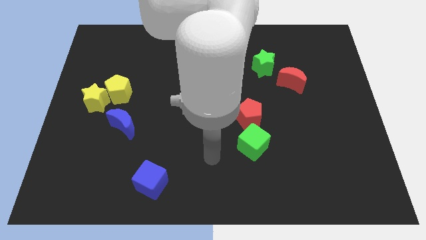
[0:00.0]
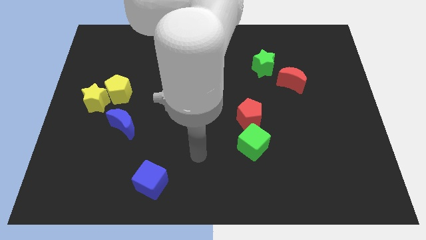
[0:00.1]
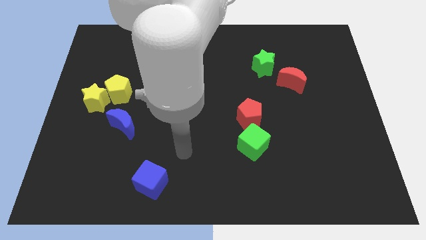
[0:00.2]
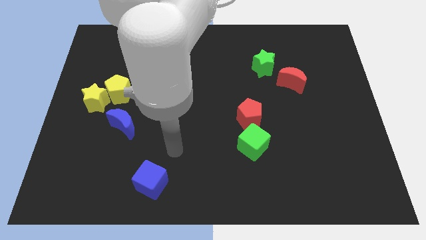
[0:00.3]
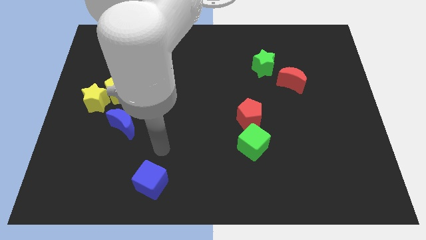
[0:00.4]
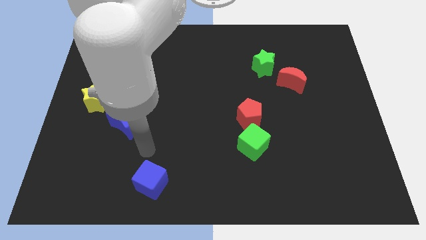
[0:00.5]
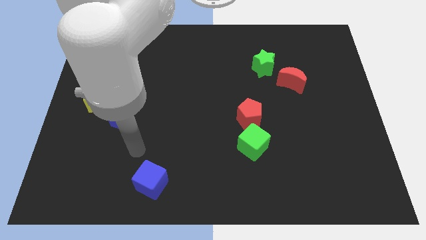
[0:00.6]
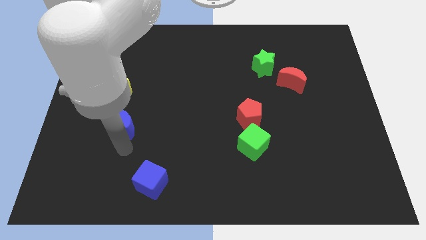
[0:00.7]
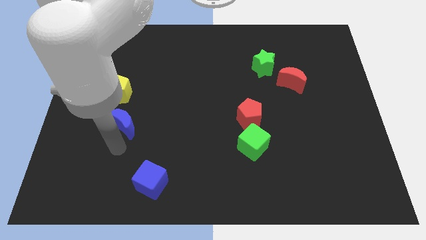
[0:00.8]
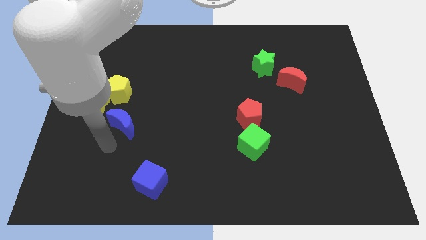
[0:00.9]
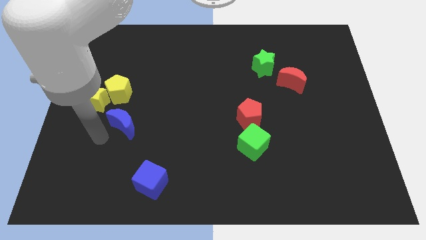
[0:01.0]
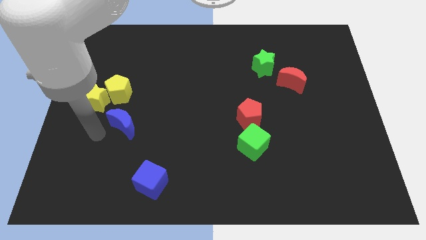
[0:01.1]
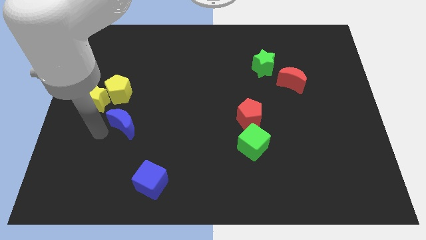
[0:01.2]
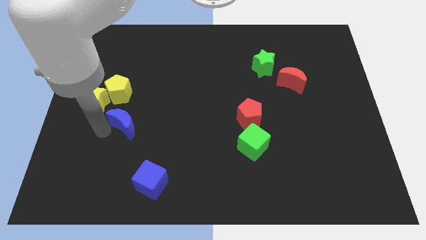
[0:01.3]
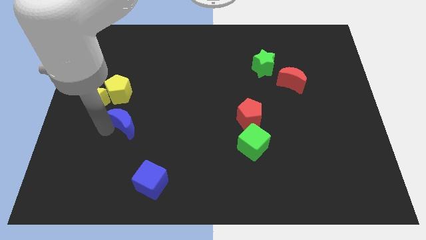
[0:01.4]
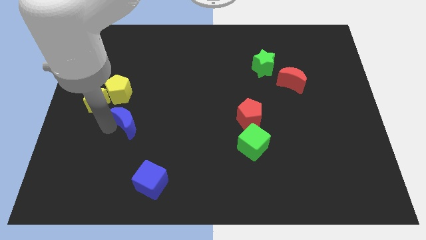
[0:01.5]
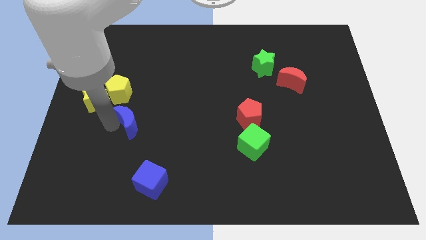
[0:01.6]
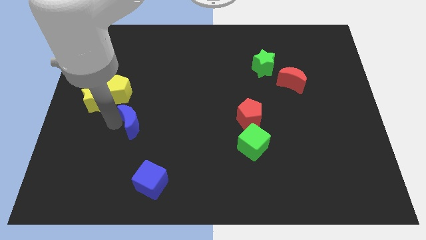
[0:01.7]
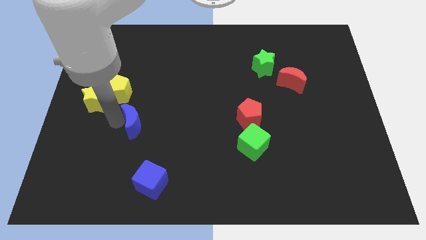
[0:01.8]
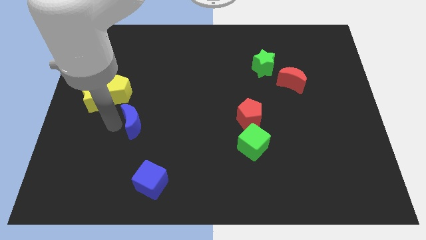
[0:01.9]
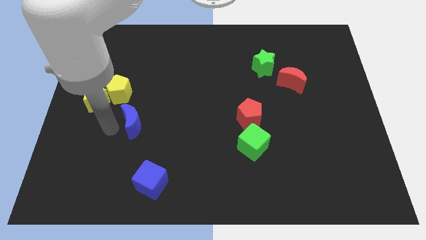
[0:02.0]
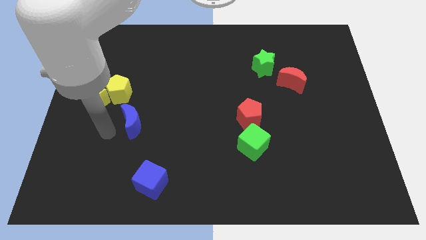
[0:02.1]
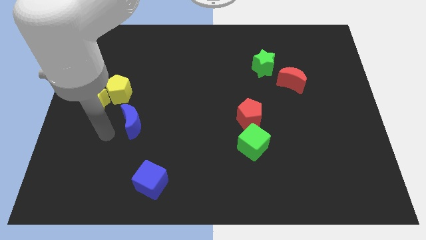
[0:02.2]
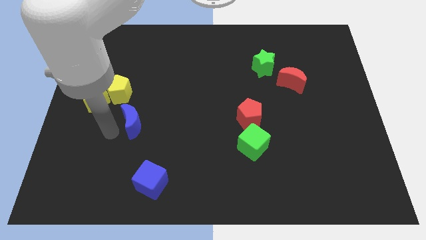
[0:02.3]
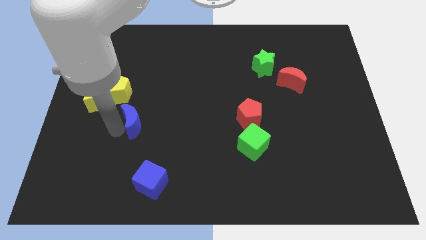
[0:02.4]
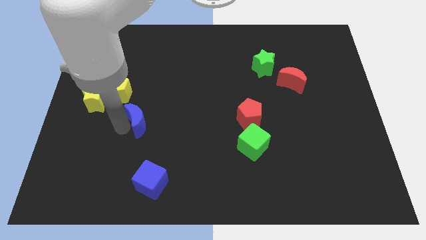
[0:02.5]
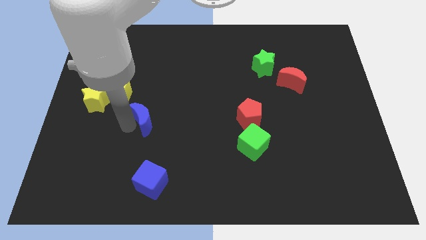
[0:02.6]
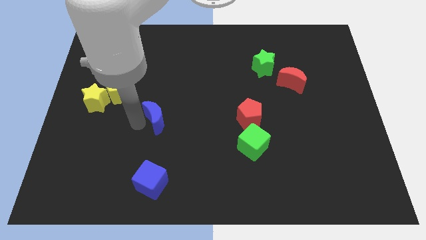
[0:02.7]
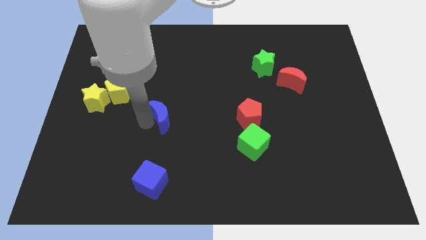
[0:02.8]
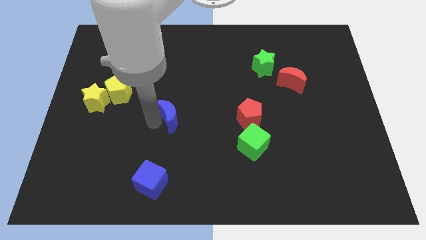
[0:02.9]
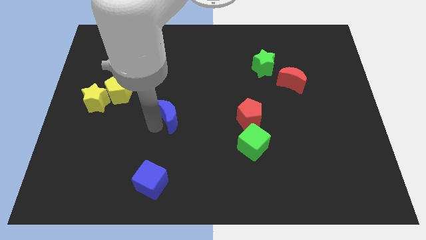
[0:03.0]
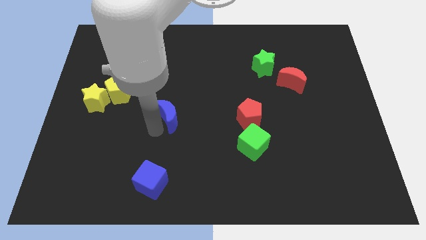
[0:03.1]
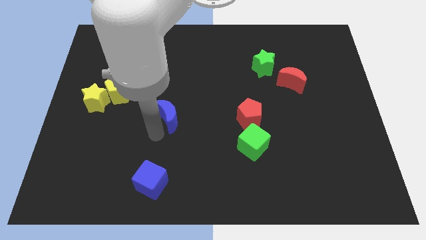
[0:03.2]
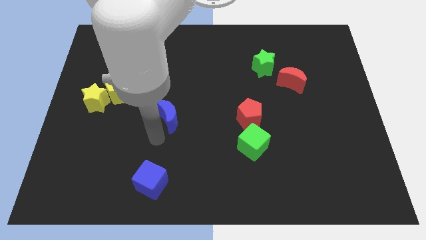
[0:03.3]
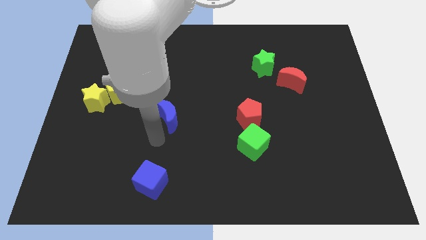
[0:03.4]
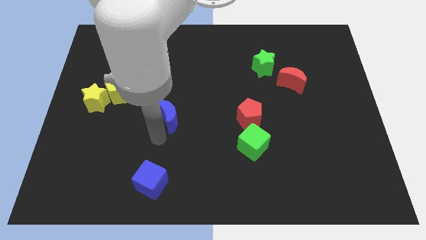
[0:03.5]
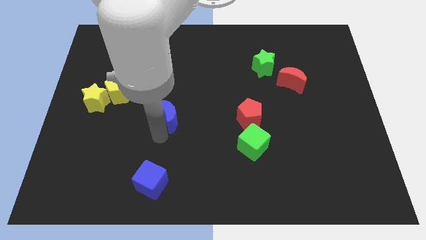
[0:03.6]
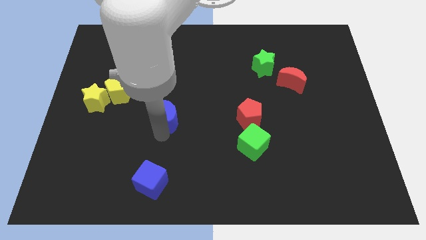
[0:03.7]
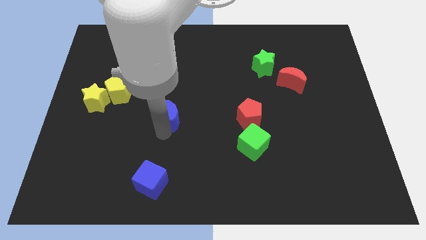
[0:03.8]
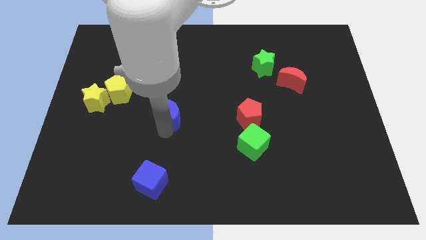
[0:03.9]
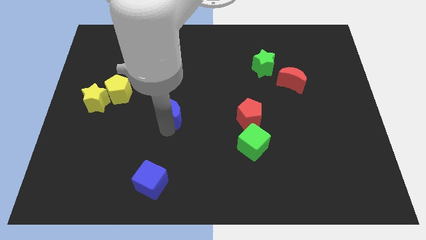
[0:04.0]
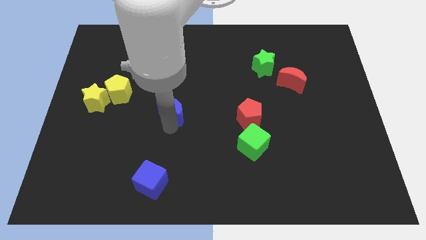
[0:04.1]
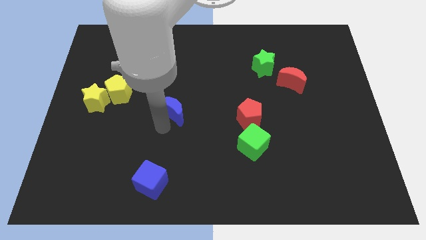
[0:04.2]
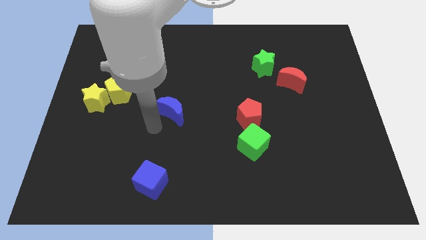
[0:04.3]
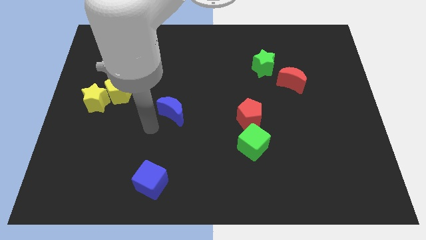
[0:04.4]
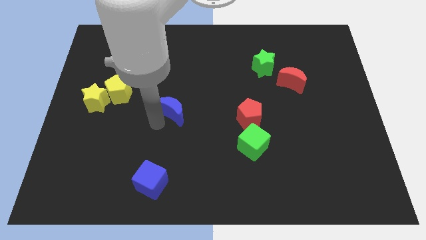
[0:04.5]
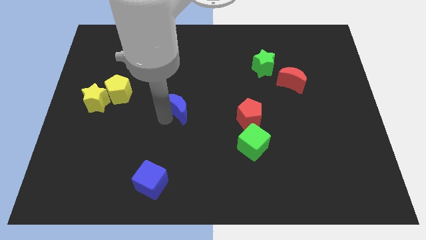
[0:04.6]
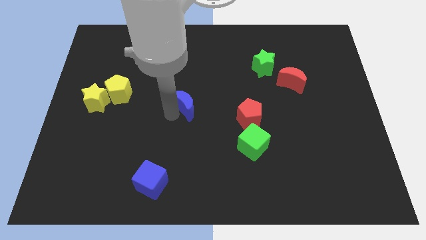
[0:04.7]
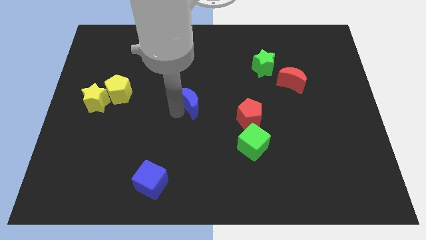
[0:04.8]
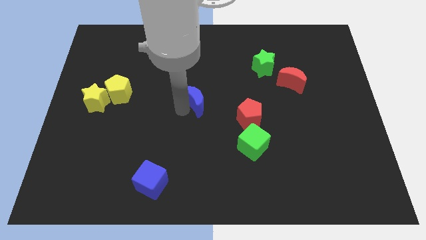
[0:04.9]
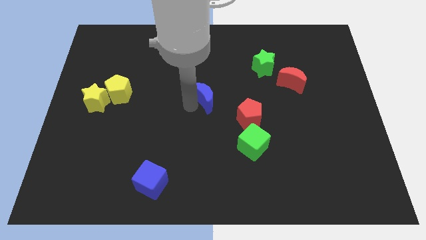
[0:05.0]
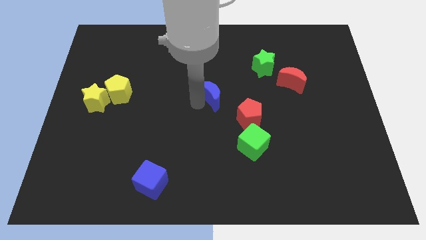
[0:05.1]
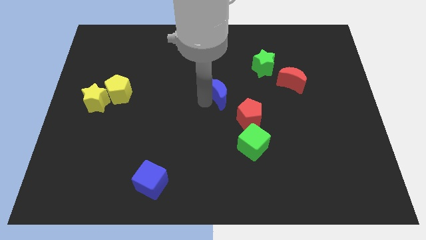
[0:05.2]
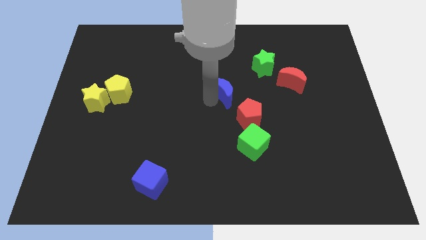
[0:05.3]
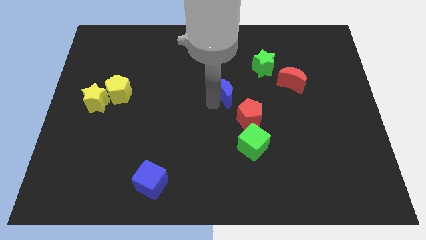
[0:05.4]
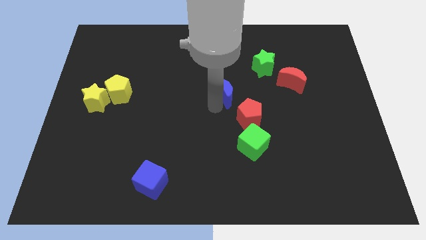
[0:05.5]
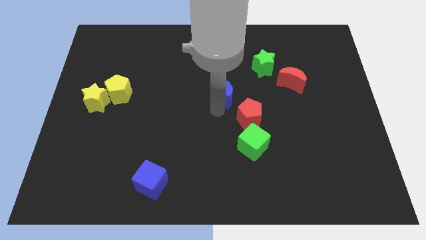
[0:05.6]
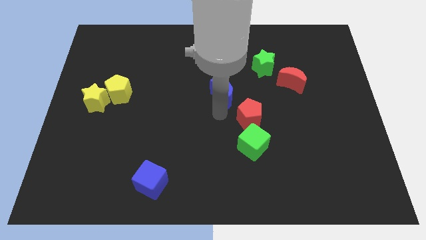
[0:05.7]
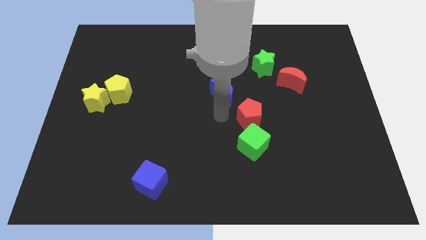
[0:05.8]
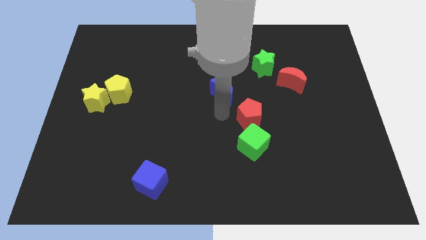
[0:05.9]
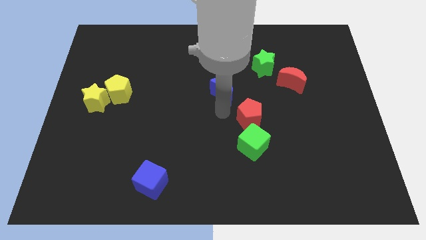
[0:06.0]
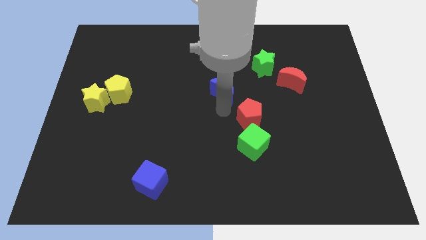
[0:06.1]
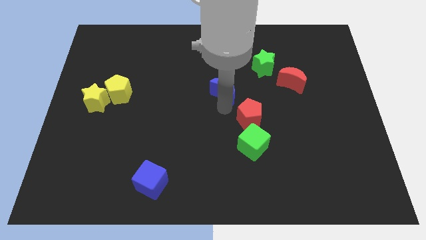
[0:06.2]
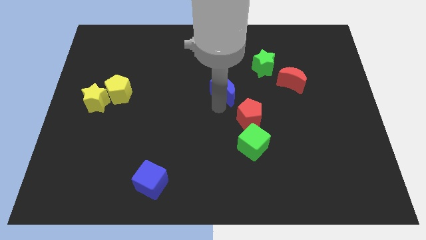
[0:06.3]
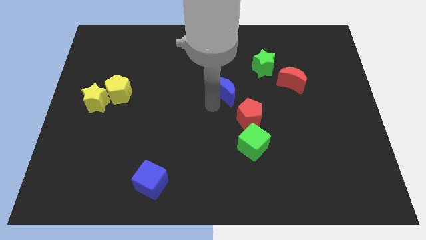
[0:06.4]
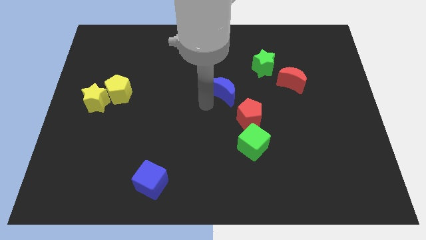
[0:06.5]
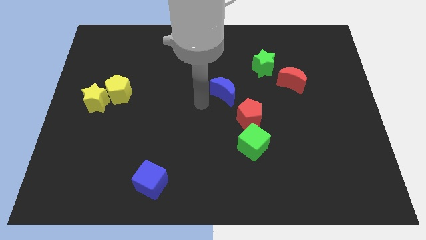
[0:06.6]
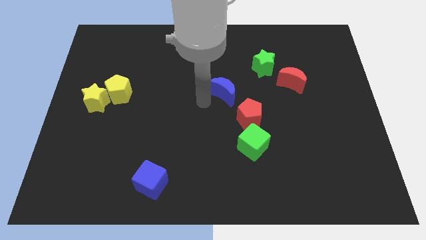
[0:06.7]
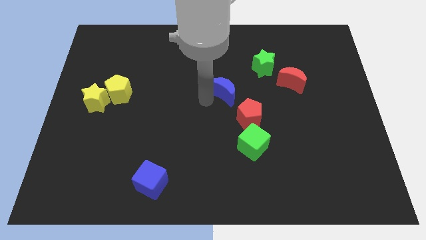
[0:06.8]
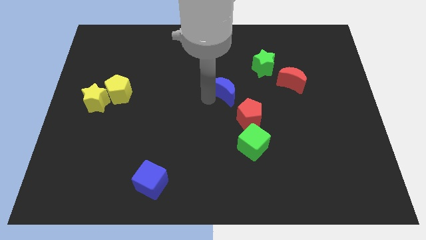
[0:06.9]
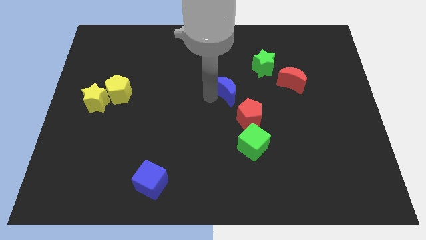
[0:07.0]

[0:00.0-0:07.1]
put the blue moon above the red pentagon
